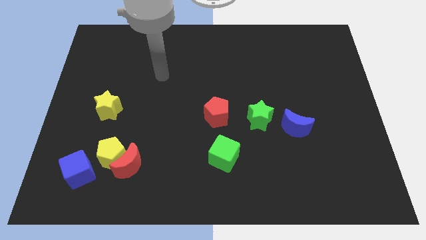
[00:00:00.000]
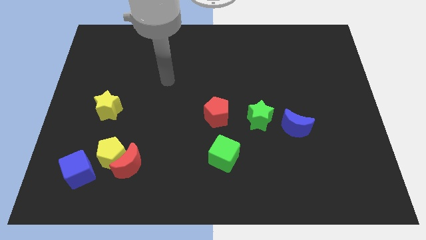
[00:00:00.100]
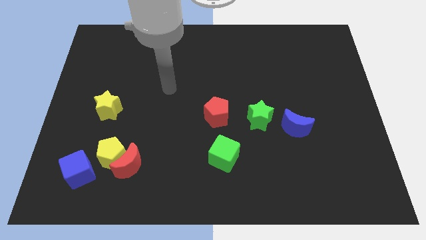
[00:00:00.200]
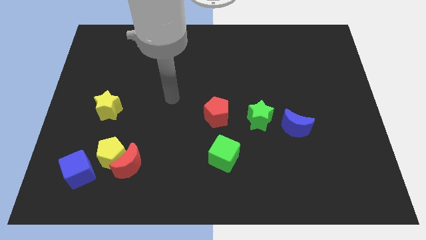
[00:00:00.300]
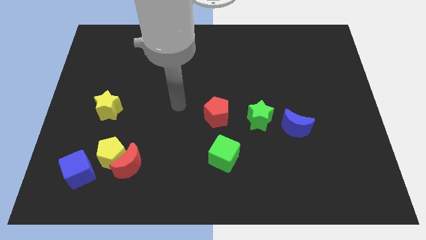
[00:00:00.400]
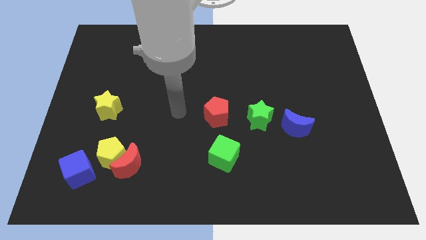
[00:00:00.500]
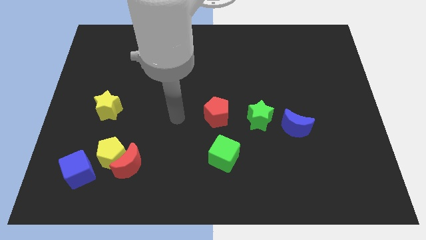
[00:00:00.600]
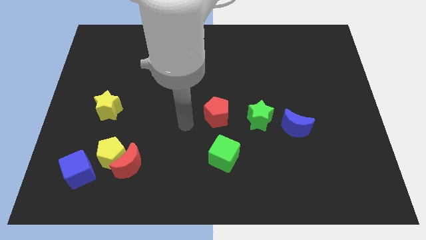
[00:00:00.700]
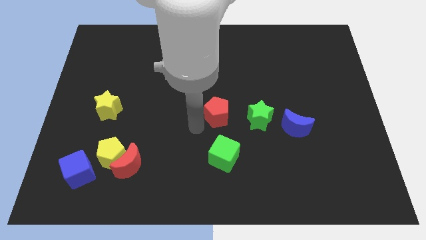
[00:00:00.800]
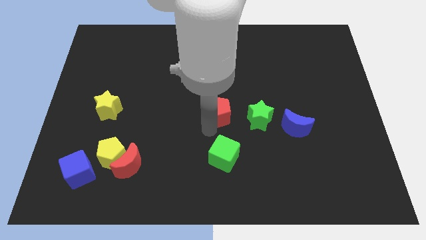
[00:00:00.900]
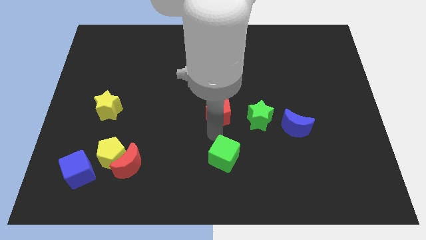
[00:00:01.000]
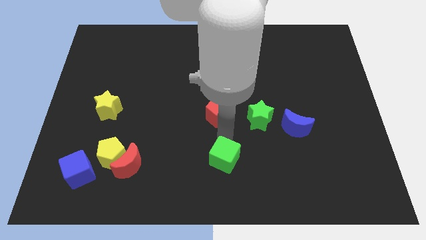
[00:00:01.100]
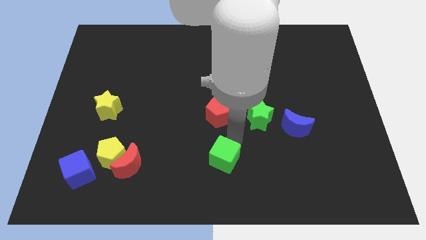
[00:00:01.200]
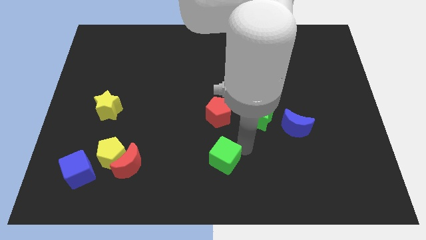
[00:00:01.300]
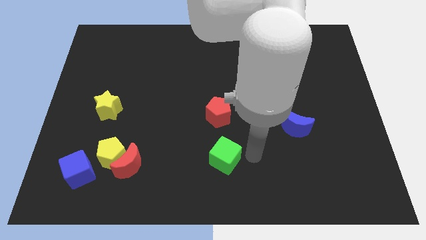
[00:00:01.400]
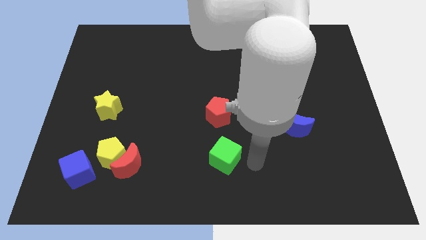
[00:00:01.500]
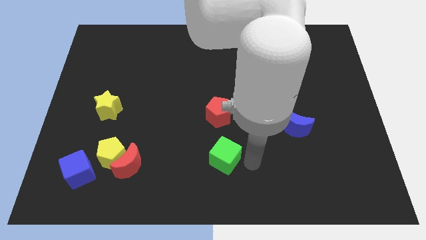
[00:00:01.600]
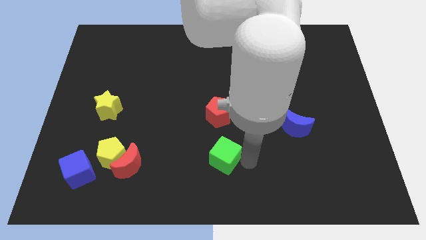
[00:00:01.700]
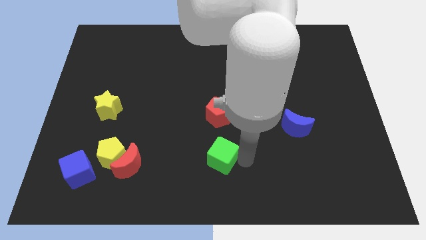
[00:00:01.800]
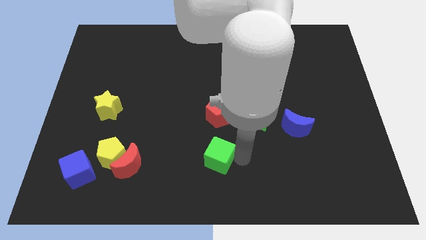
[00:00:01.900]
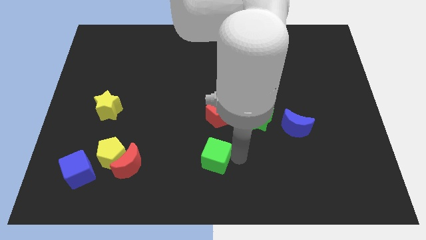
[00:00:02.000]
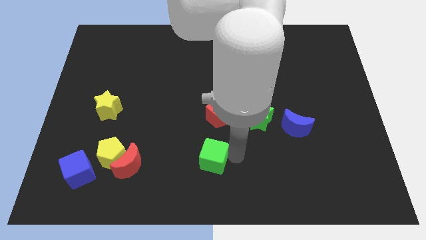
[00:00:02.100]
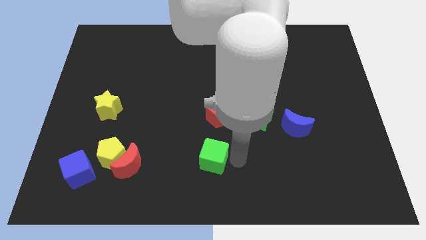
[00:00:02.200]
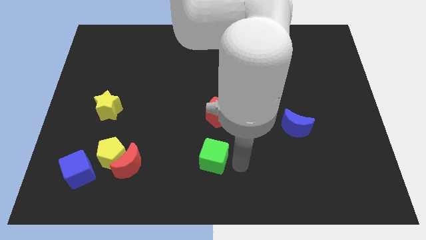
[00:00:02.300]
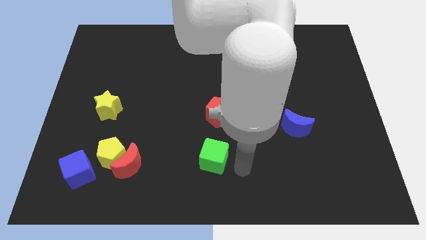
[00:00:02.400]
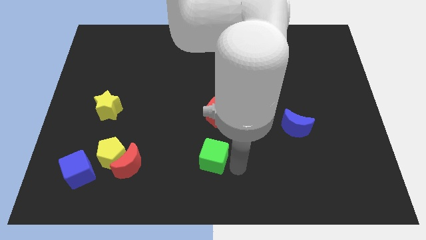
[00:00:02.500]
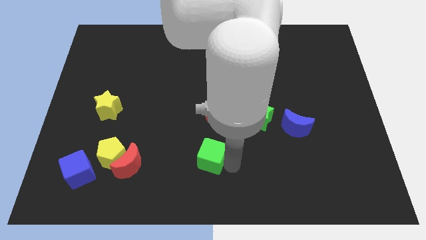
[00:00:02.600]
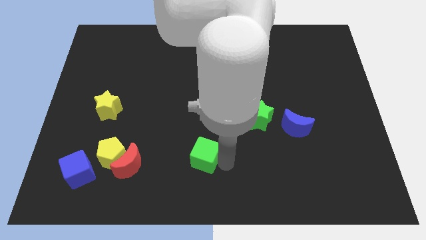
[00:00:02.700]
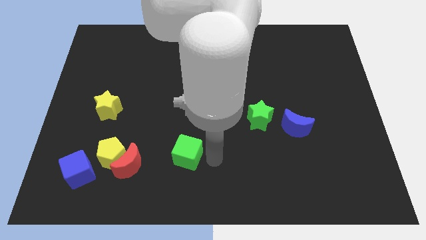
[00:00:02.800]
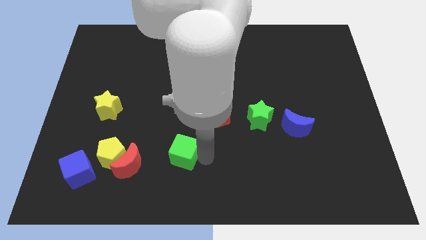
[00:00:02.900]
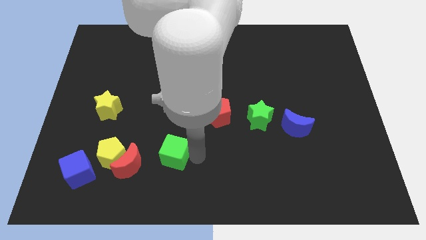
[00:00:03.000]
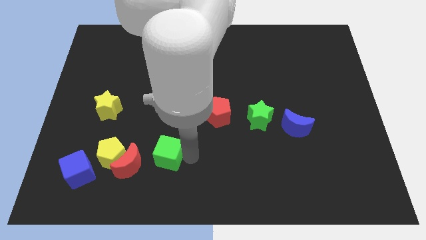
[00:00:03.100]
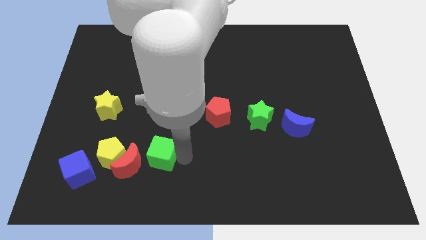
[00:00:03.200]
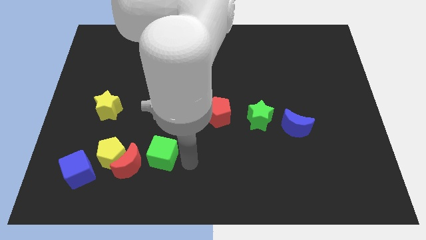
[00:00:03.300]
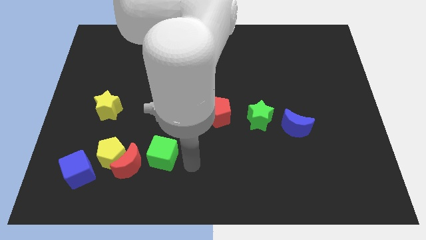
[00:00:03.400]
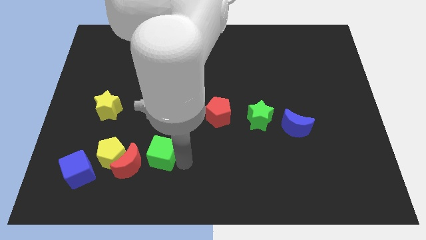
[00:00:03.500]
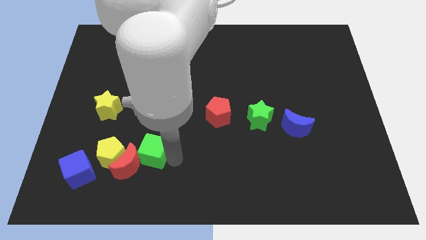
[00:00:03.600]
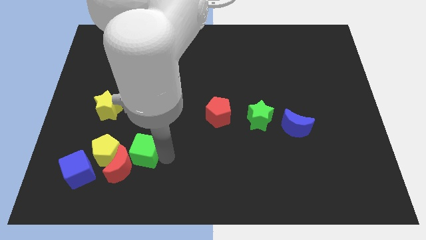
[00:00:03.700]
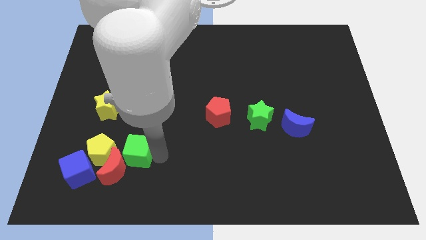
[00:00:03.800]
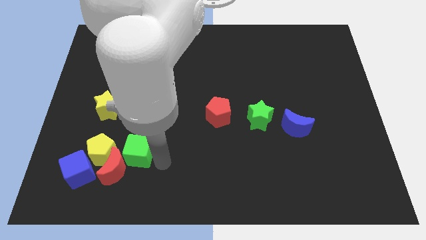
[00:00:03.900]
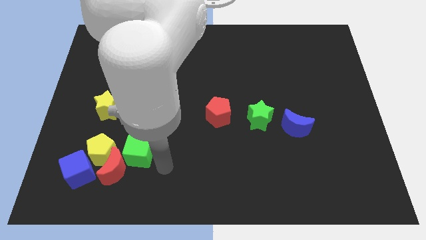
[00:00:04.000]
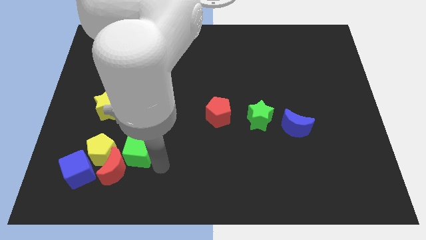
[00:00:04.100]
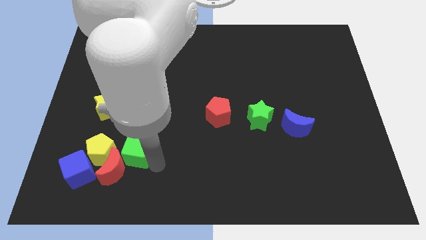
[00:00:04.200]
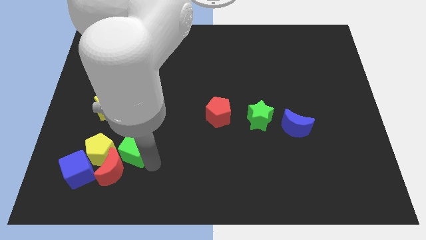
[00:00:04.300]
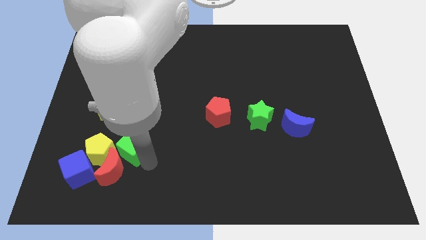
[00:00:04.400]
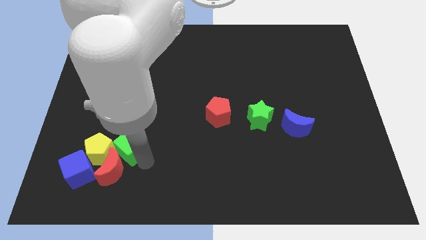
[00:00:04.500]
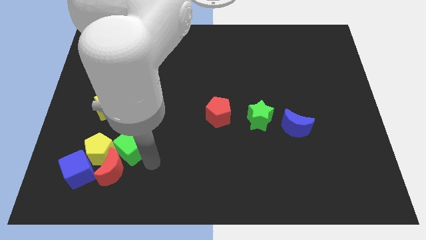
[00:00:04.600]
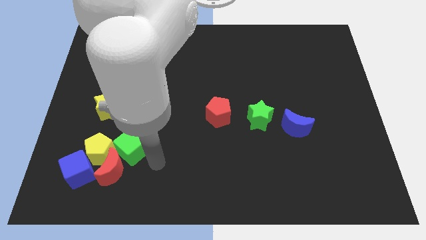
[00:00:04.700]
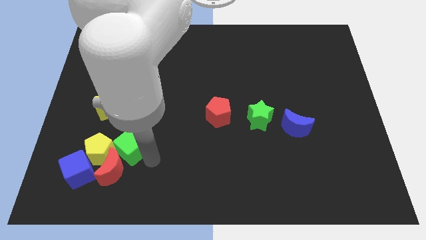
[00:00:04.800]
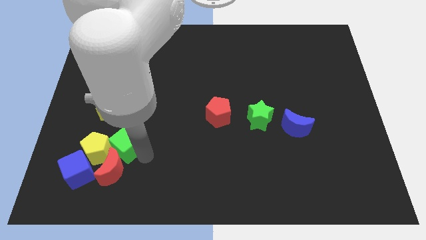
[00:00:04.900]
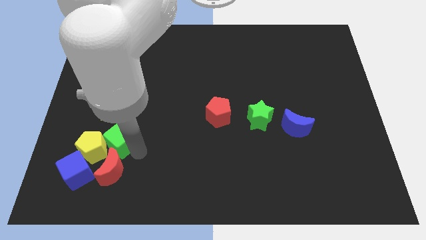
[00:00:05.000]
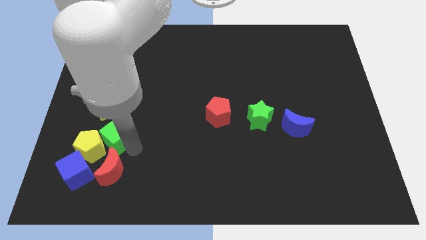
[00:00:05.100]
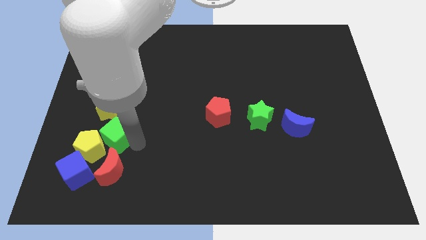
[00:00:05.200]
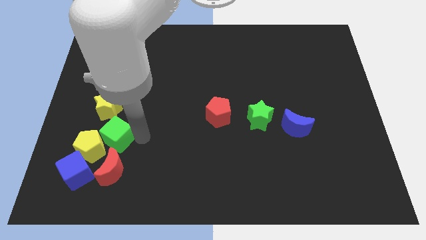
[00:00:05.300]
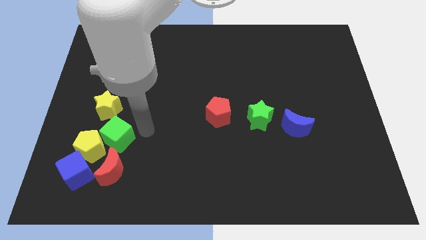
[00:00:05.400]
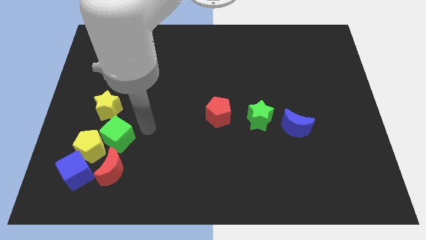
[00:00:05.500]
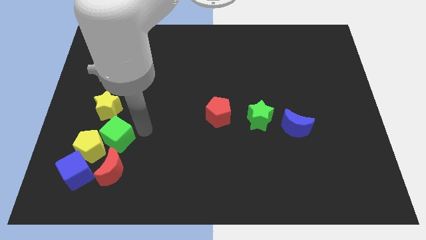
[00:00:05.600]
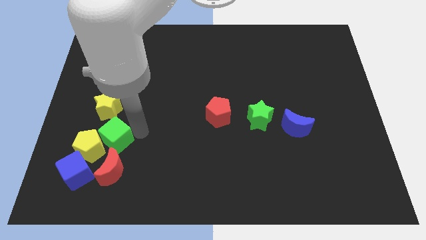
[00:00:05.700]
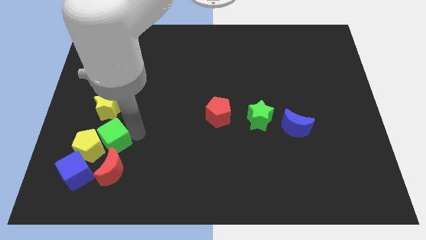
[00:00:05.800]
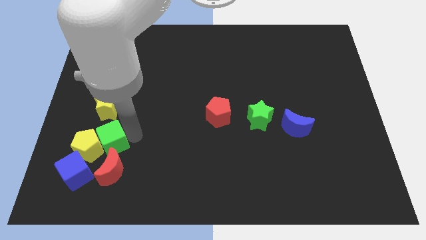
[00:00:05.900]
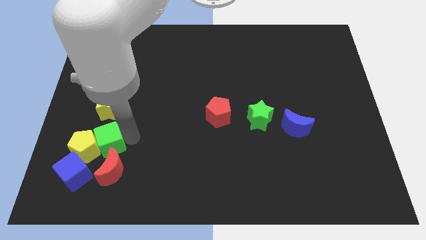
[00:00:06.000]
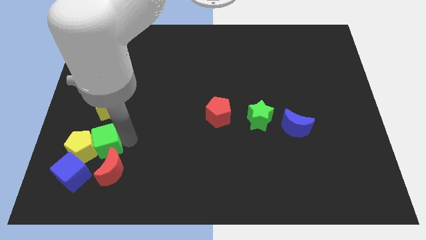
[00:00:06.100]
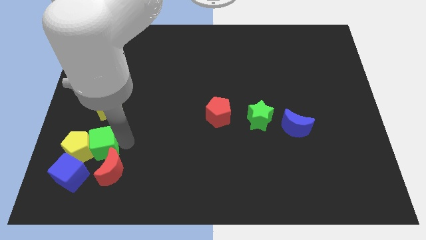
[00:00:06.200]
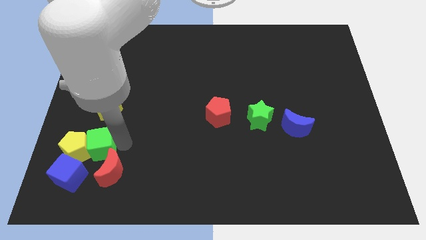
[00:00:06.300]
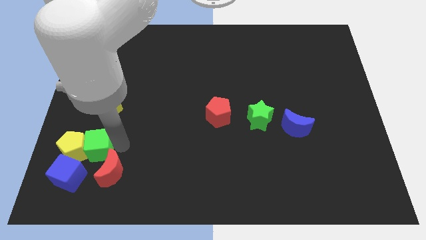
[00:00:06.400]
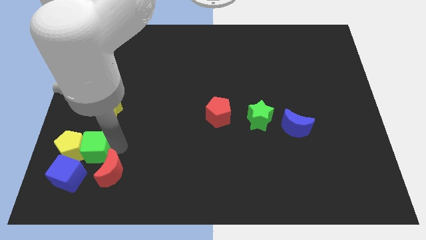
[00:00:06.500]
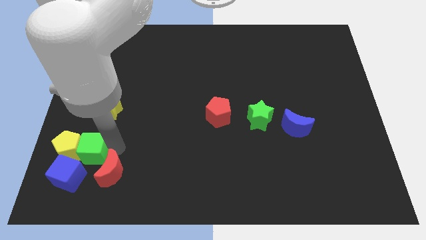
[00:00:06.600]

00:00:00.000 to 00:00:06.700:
move the green cube to the left side of the red moon
